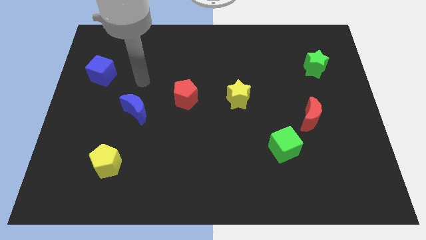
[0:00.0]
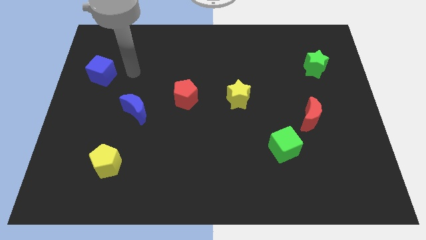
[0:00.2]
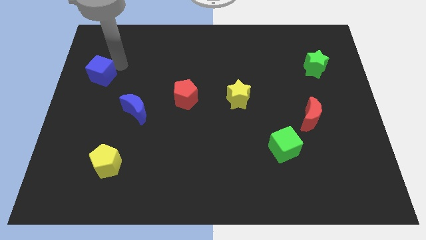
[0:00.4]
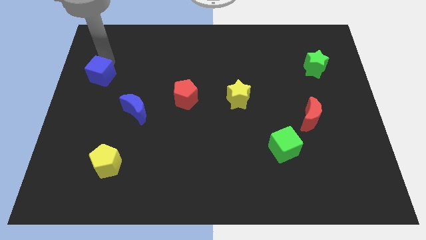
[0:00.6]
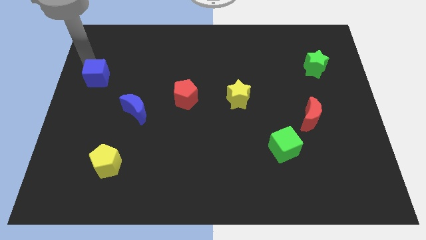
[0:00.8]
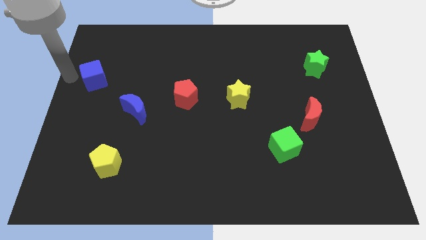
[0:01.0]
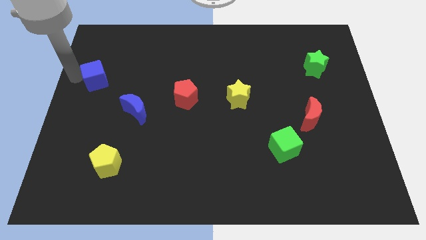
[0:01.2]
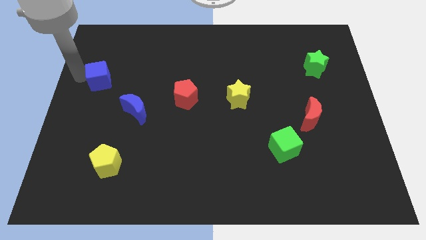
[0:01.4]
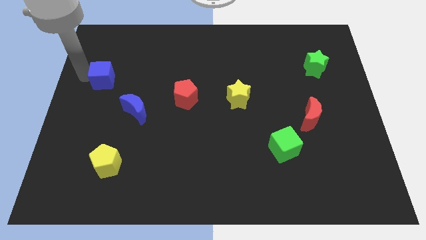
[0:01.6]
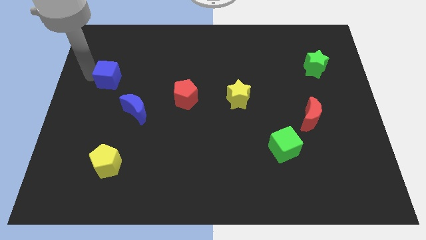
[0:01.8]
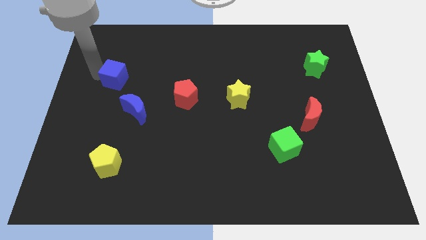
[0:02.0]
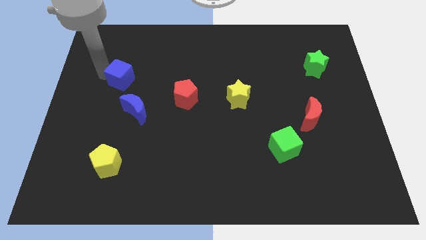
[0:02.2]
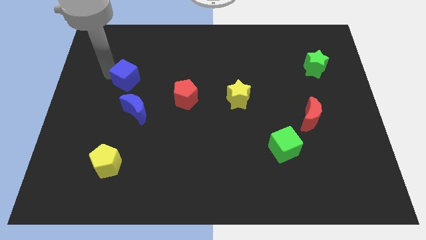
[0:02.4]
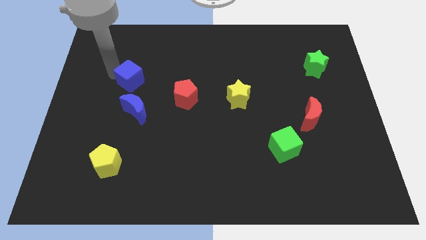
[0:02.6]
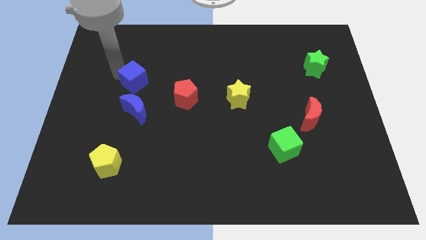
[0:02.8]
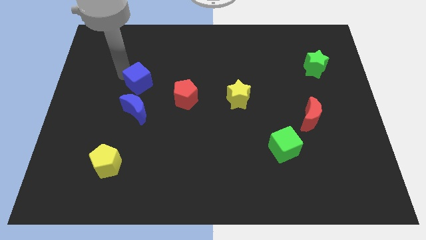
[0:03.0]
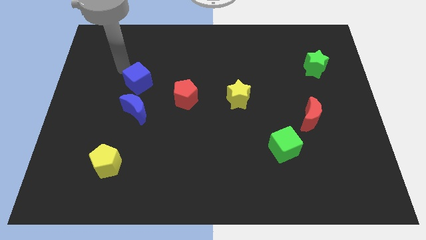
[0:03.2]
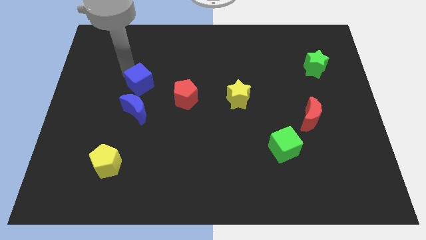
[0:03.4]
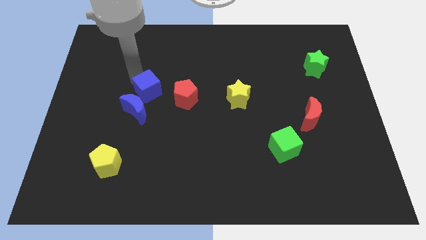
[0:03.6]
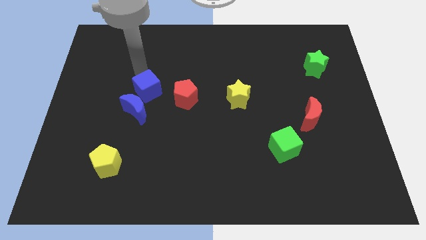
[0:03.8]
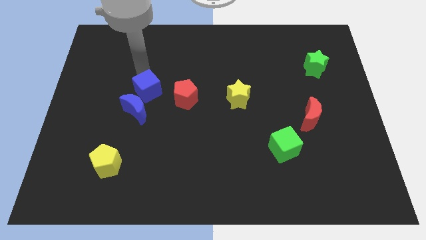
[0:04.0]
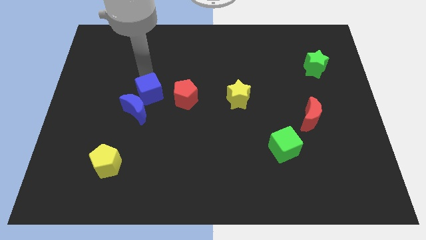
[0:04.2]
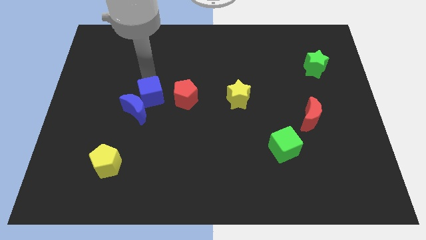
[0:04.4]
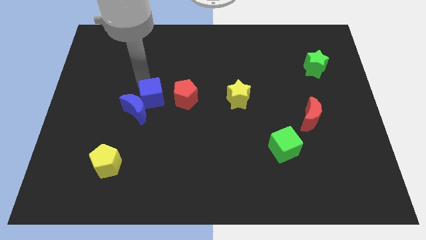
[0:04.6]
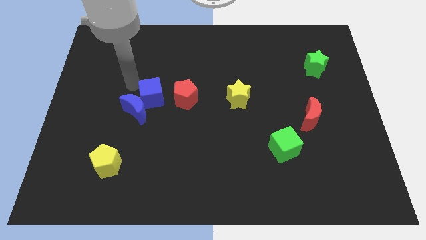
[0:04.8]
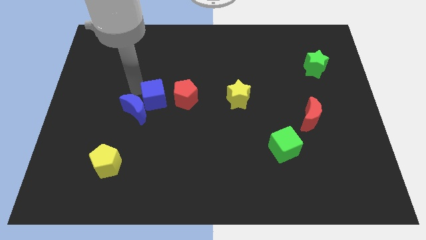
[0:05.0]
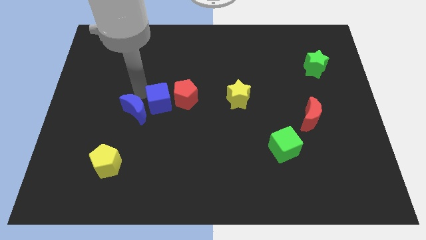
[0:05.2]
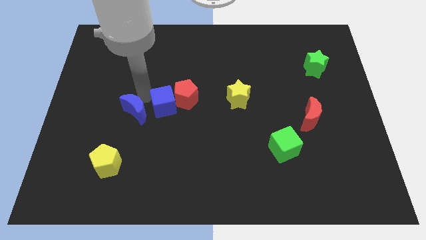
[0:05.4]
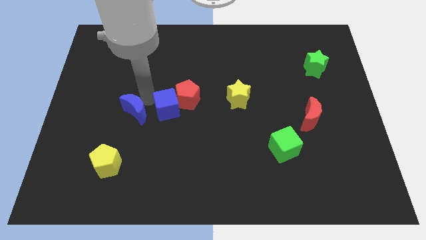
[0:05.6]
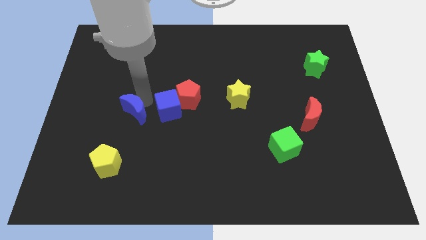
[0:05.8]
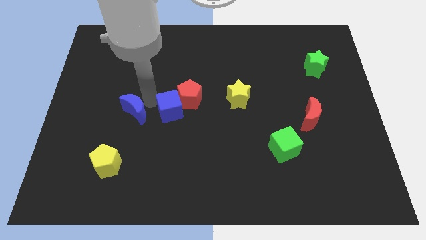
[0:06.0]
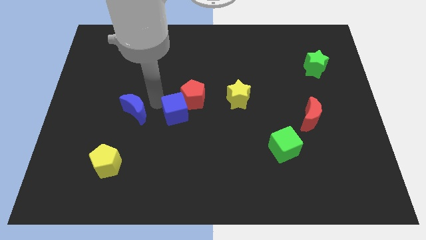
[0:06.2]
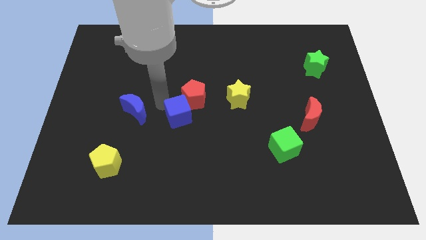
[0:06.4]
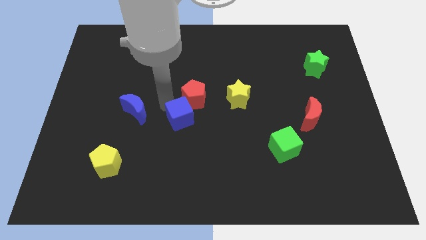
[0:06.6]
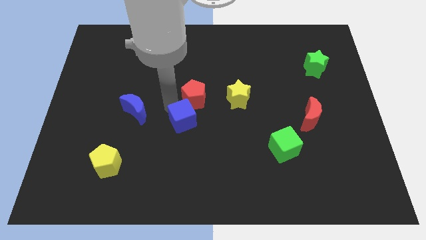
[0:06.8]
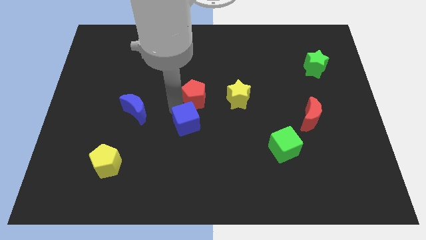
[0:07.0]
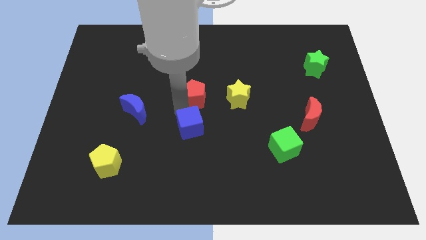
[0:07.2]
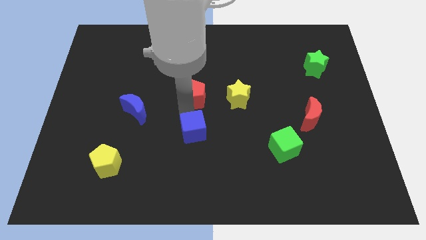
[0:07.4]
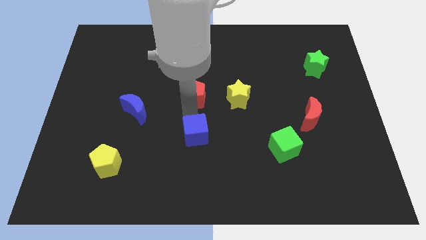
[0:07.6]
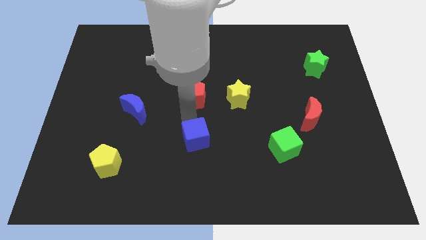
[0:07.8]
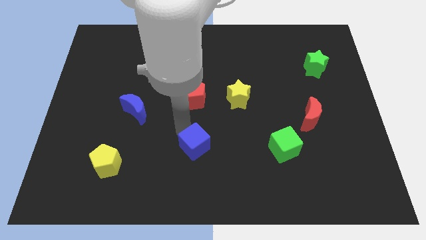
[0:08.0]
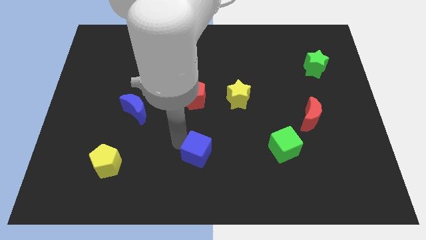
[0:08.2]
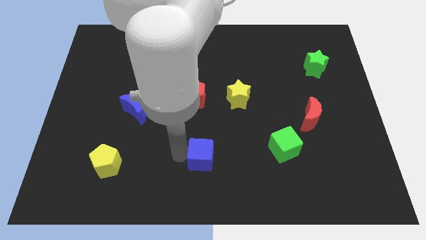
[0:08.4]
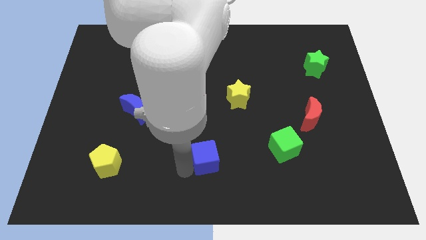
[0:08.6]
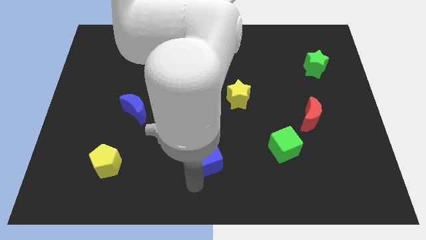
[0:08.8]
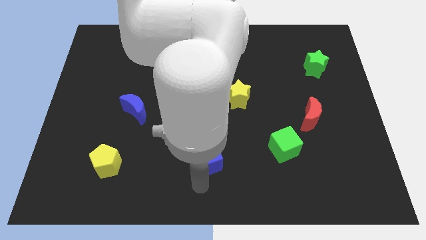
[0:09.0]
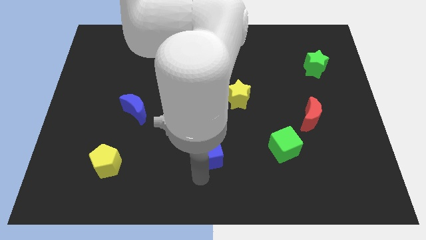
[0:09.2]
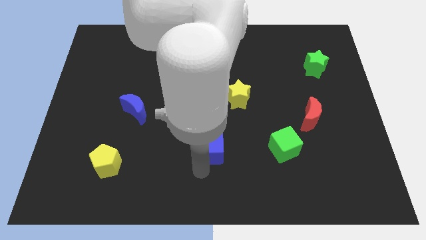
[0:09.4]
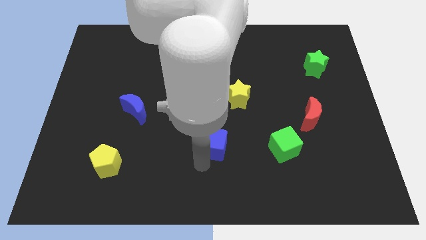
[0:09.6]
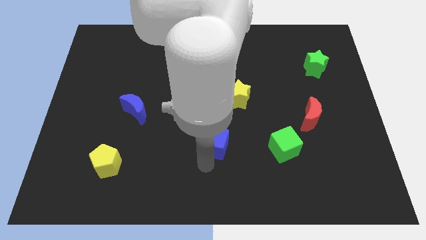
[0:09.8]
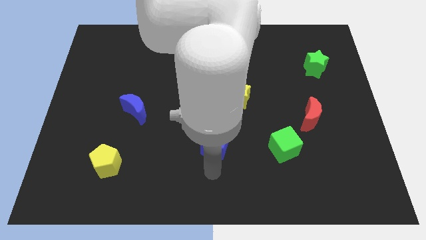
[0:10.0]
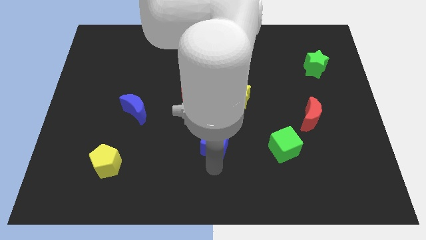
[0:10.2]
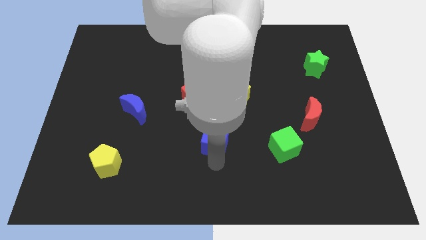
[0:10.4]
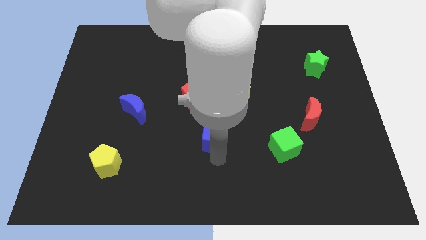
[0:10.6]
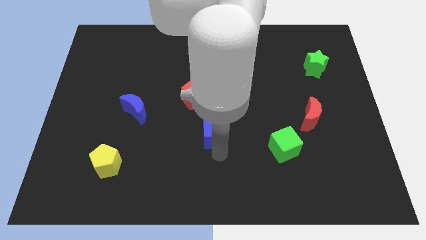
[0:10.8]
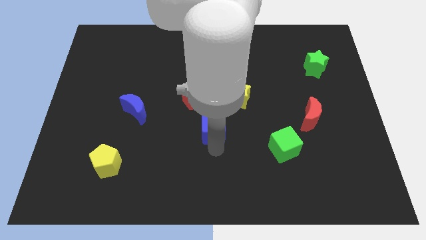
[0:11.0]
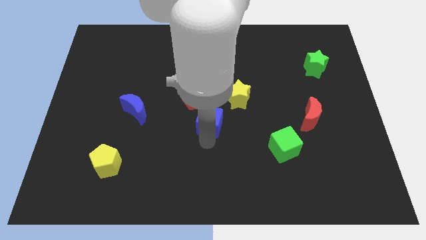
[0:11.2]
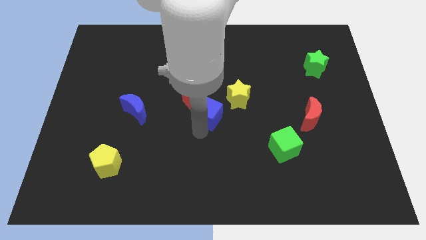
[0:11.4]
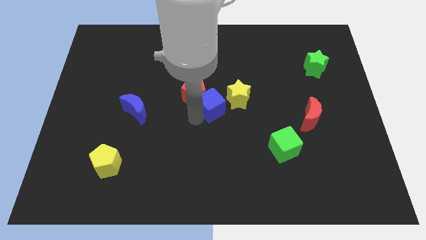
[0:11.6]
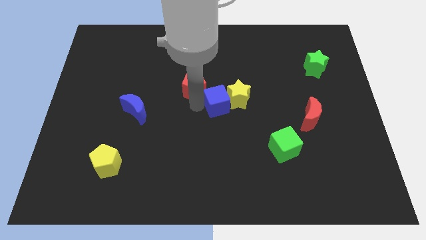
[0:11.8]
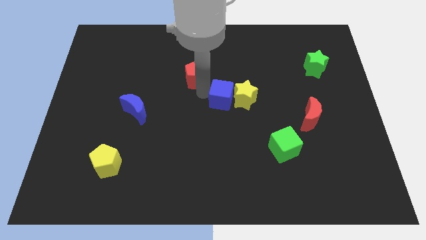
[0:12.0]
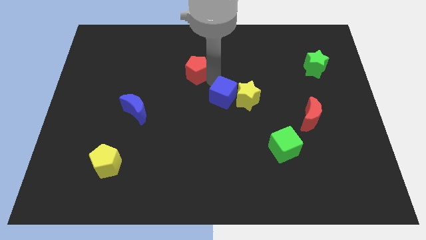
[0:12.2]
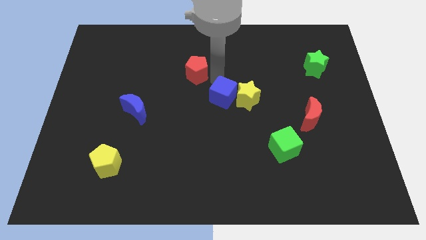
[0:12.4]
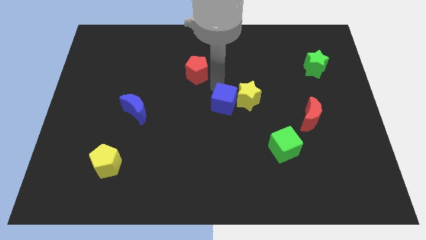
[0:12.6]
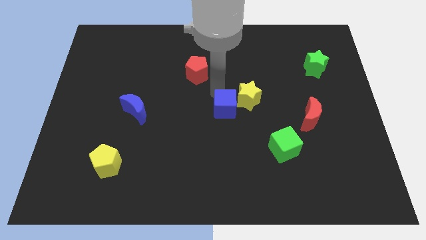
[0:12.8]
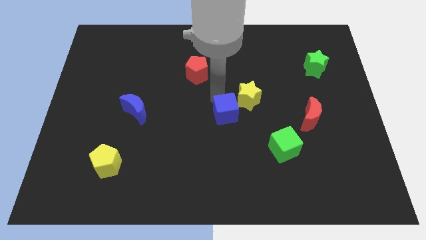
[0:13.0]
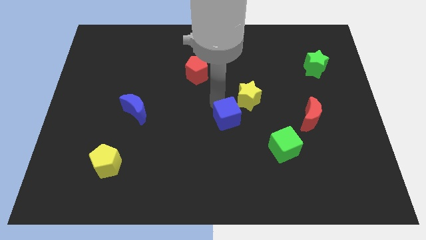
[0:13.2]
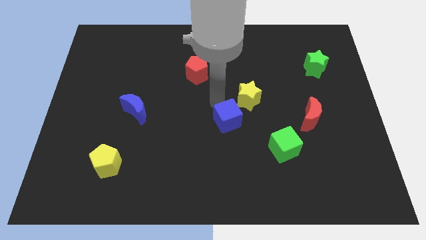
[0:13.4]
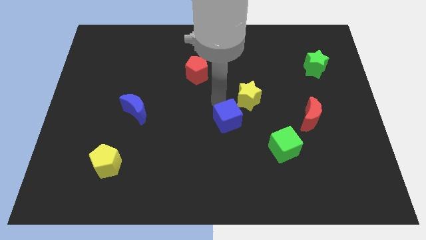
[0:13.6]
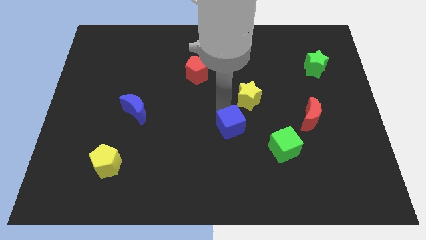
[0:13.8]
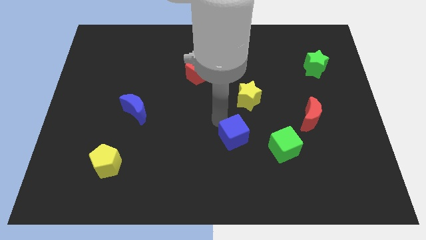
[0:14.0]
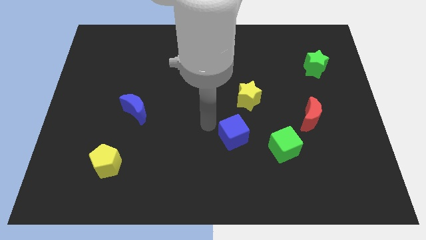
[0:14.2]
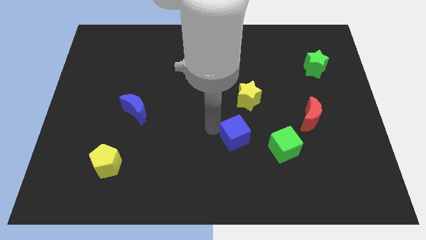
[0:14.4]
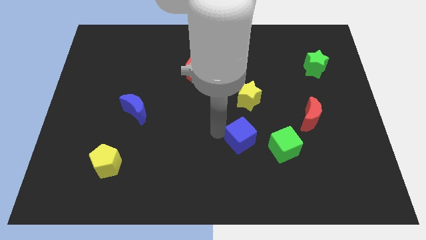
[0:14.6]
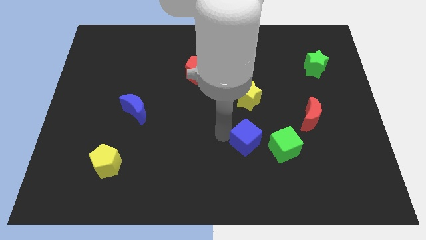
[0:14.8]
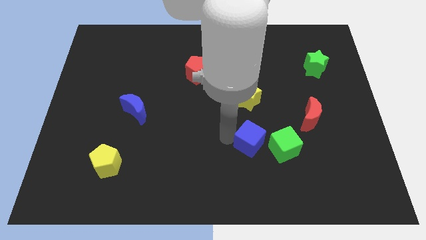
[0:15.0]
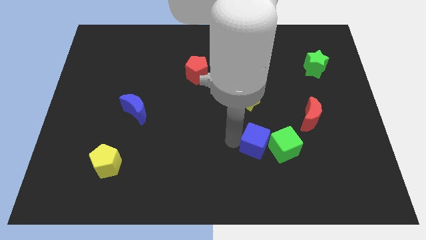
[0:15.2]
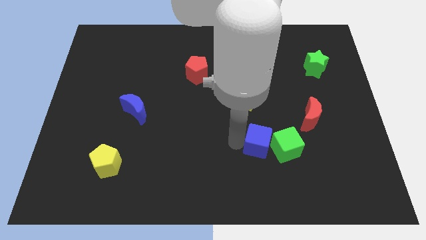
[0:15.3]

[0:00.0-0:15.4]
put the blue cube next to the green cube

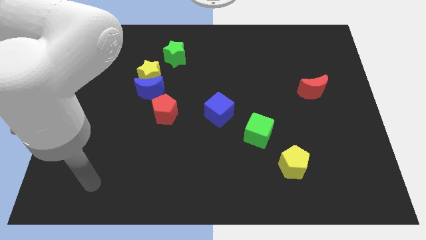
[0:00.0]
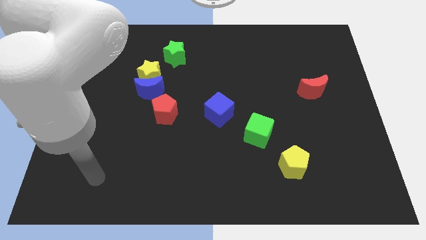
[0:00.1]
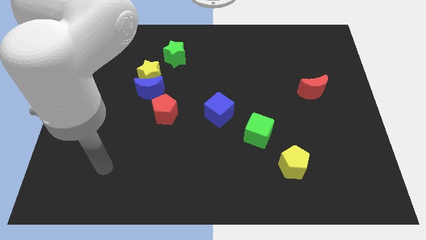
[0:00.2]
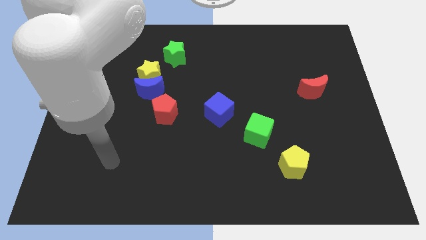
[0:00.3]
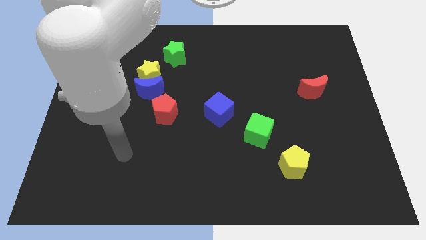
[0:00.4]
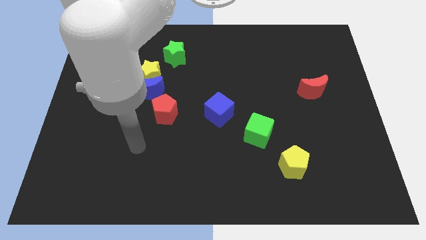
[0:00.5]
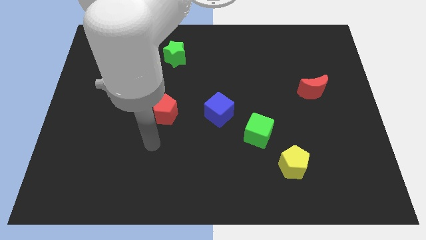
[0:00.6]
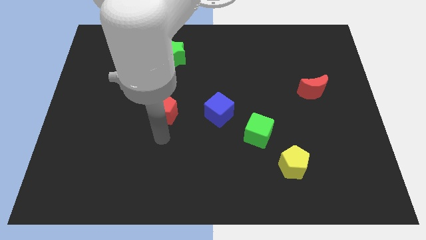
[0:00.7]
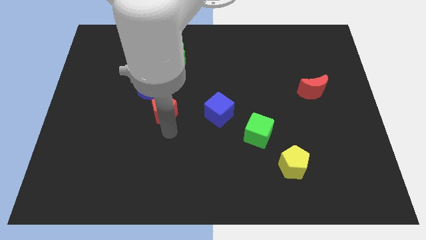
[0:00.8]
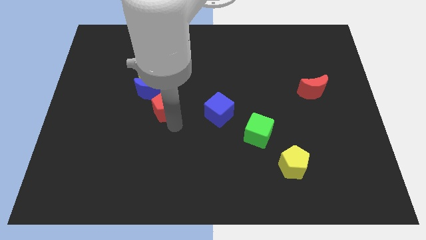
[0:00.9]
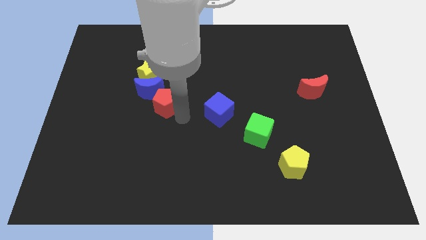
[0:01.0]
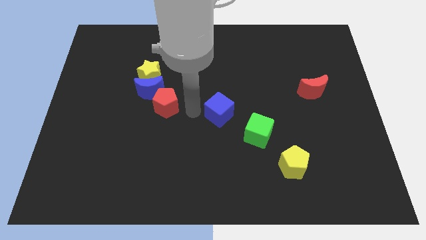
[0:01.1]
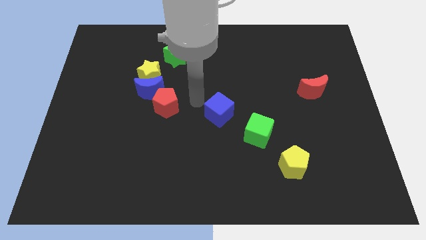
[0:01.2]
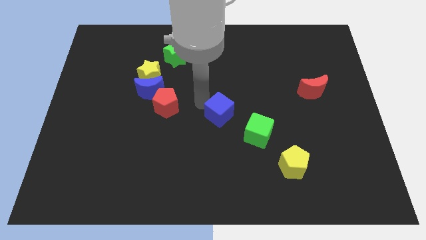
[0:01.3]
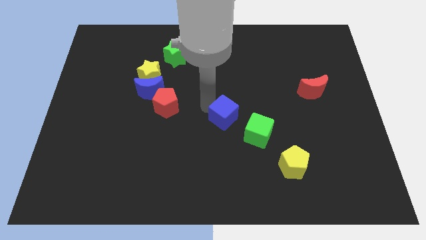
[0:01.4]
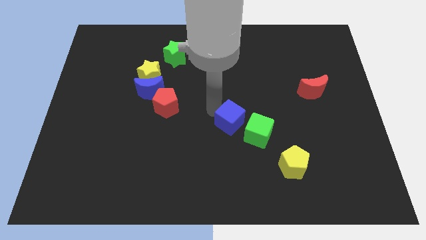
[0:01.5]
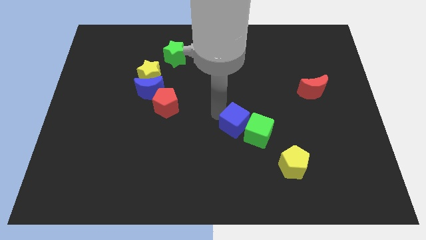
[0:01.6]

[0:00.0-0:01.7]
push the blue cube close to the green cube
